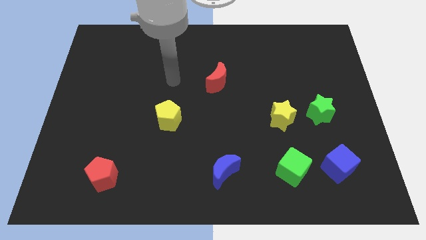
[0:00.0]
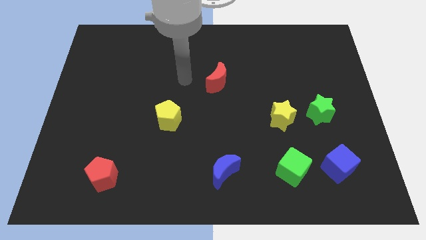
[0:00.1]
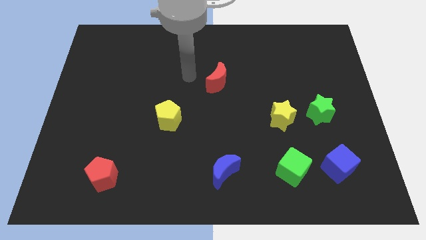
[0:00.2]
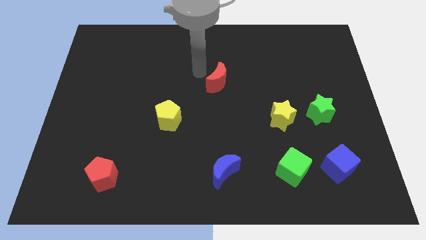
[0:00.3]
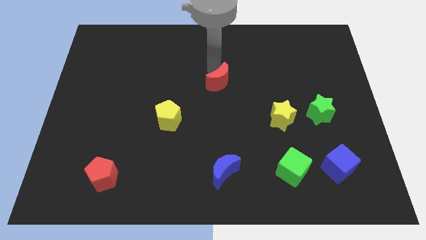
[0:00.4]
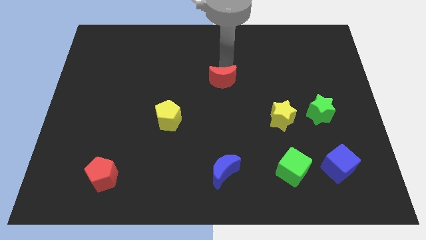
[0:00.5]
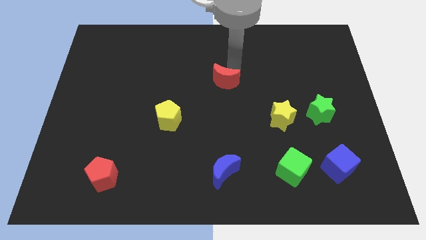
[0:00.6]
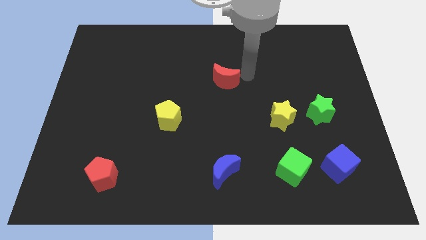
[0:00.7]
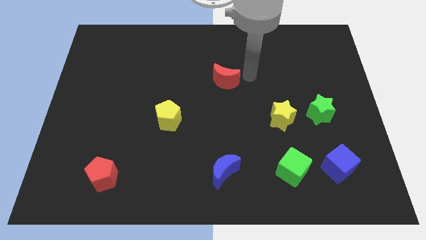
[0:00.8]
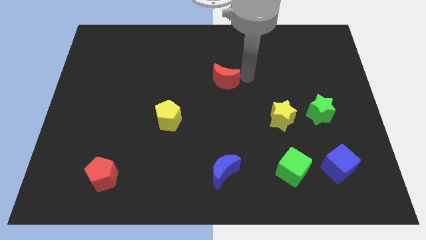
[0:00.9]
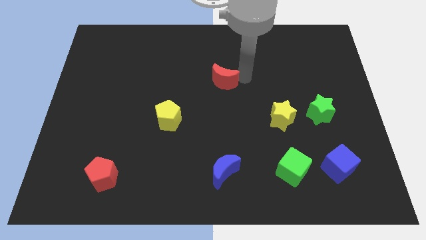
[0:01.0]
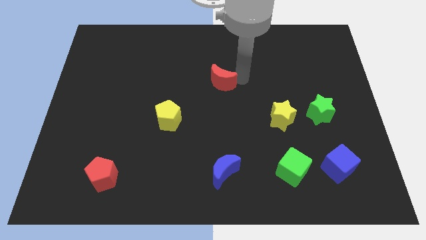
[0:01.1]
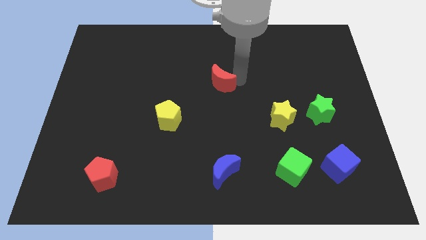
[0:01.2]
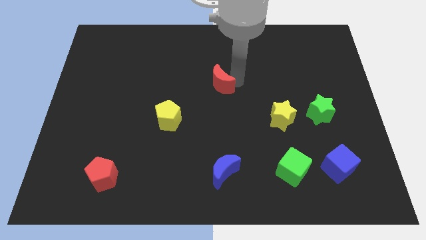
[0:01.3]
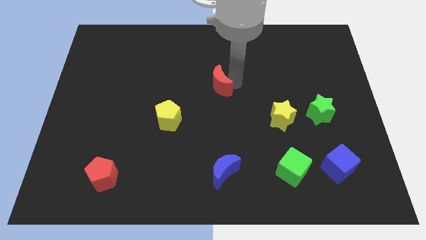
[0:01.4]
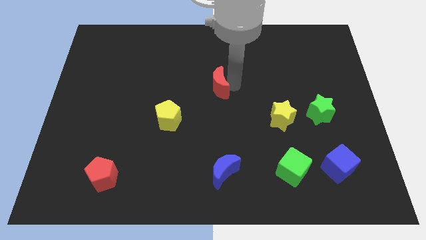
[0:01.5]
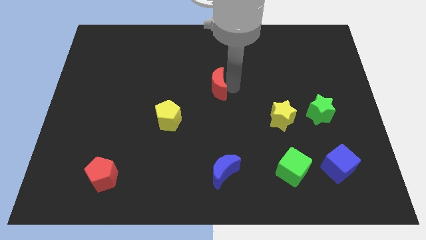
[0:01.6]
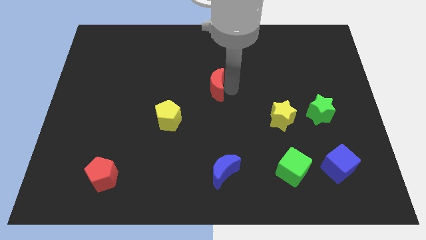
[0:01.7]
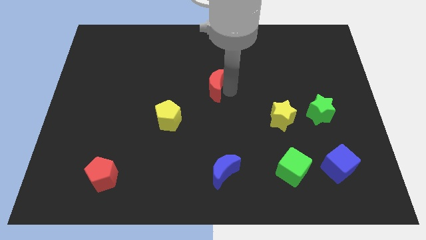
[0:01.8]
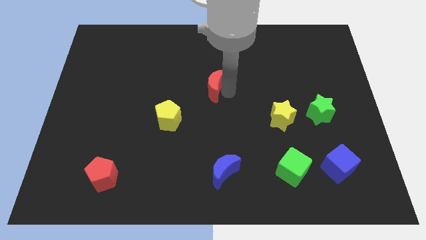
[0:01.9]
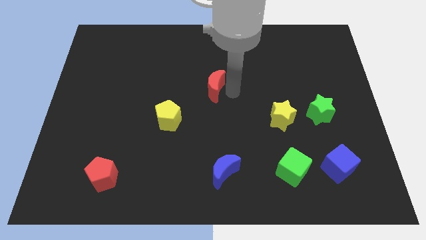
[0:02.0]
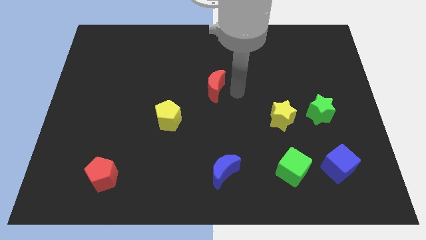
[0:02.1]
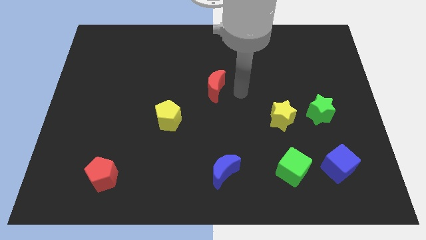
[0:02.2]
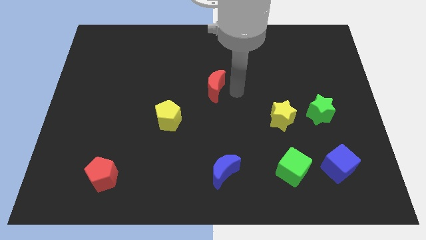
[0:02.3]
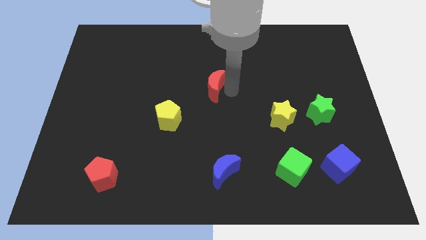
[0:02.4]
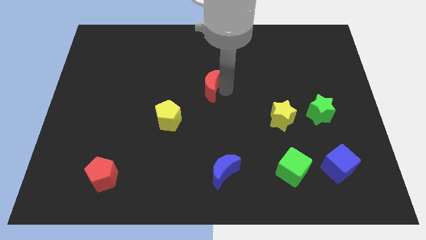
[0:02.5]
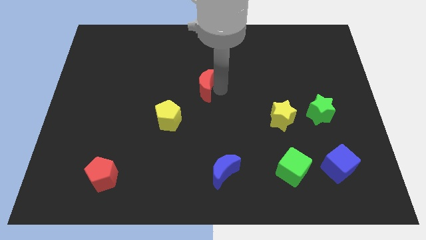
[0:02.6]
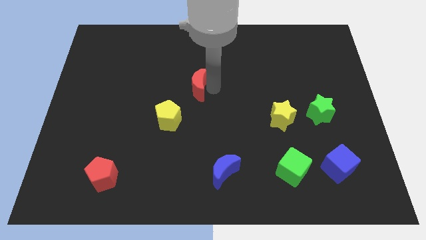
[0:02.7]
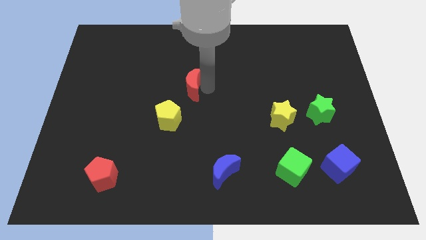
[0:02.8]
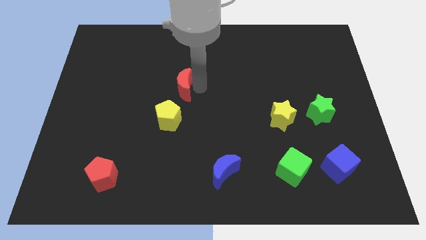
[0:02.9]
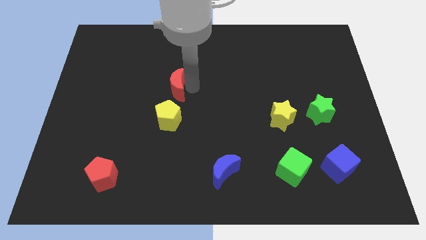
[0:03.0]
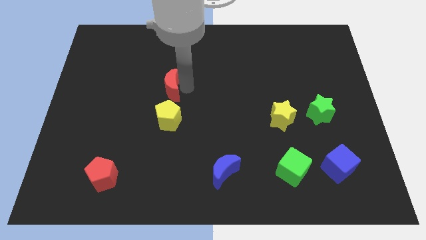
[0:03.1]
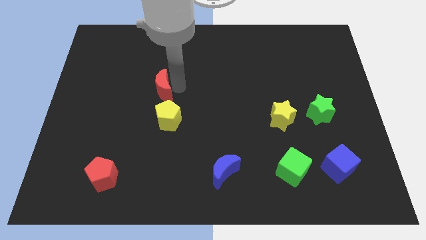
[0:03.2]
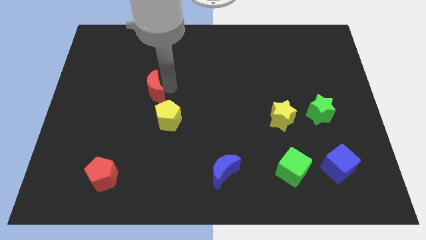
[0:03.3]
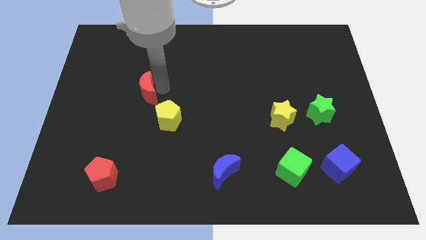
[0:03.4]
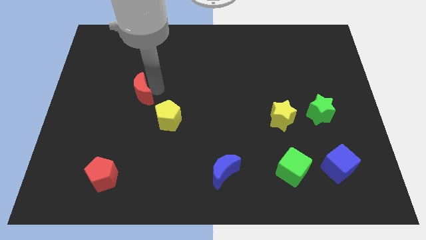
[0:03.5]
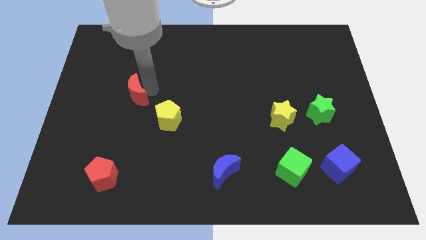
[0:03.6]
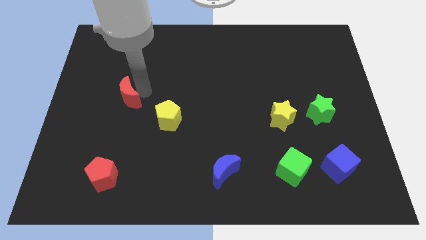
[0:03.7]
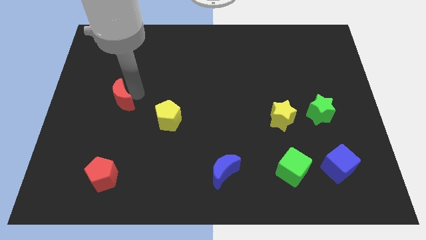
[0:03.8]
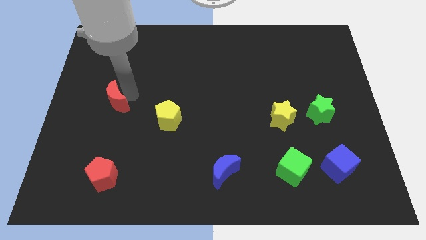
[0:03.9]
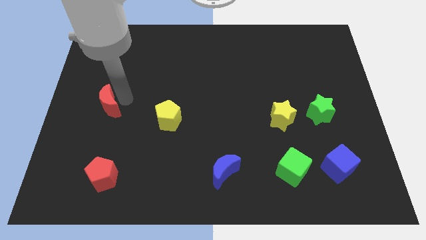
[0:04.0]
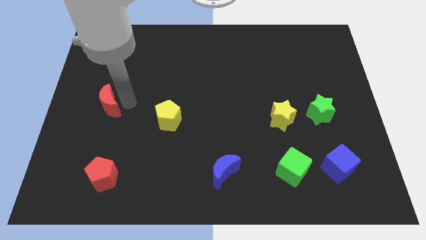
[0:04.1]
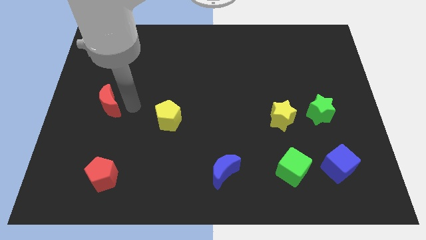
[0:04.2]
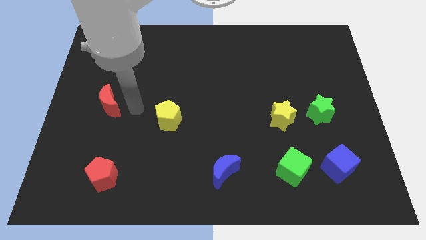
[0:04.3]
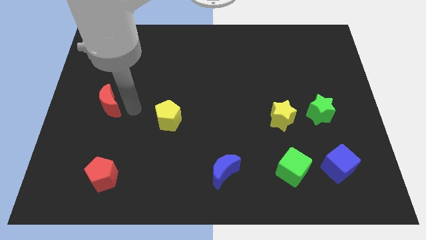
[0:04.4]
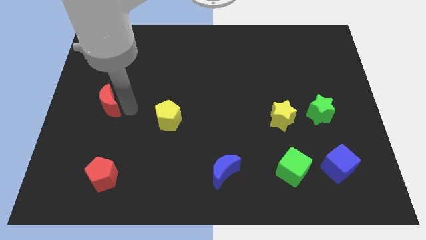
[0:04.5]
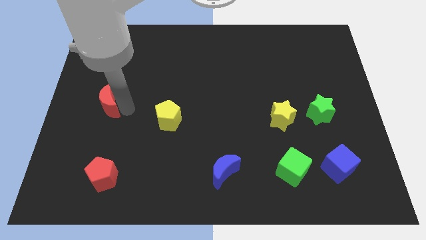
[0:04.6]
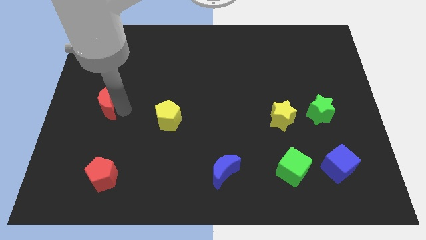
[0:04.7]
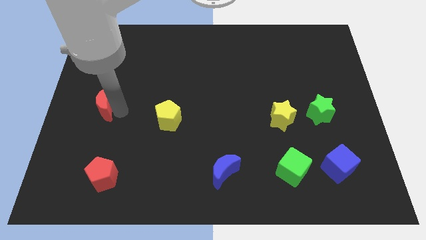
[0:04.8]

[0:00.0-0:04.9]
put the red moon to the left side of the board
